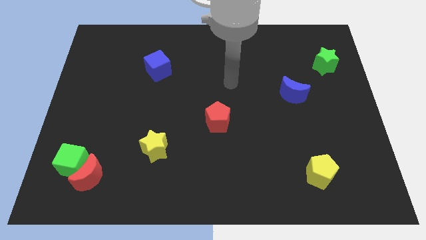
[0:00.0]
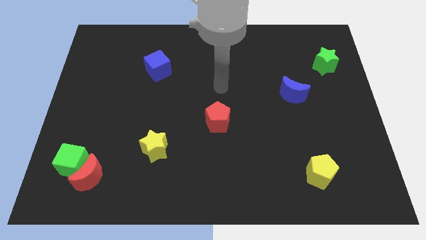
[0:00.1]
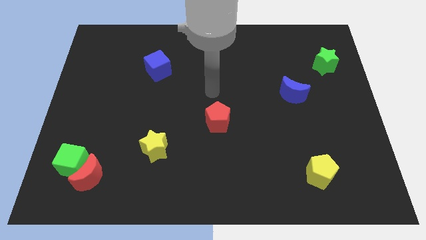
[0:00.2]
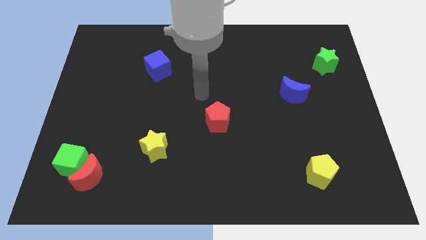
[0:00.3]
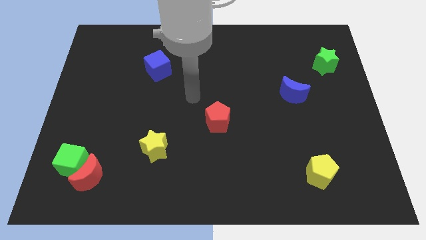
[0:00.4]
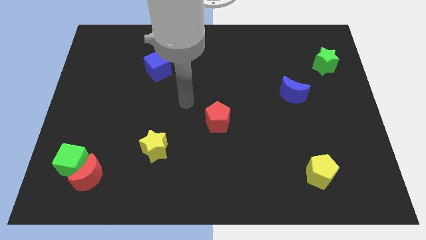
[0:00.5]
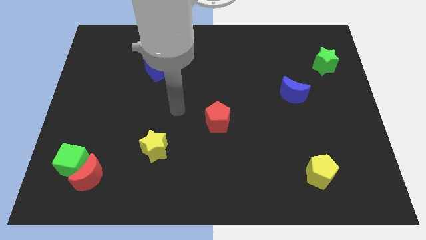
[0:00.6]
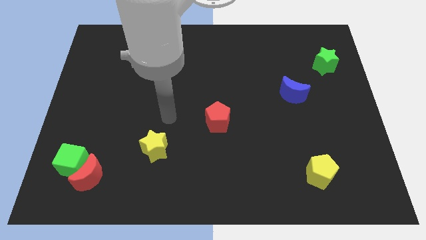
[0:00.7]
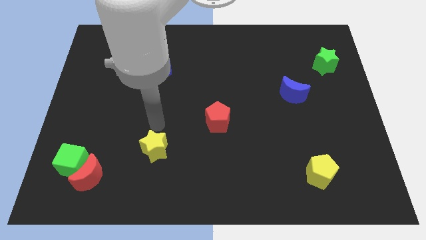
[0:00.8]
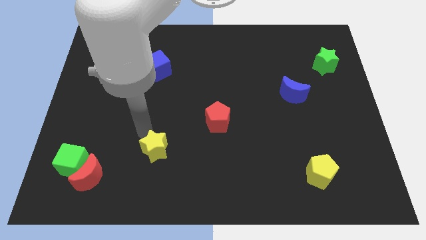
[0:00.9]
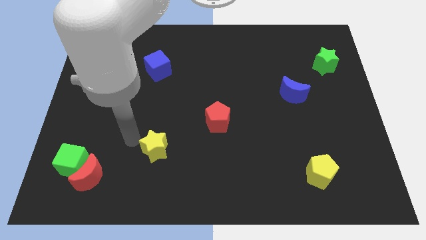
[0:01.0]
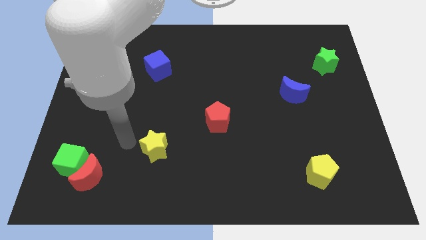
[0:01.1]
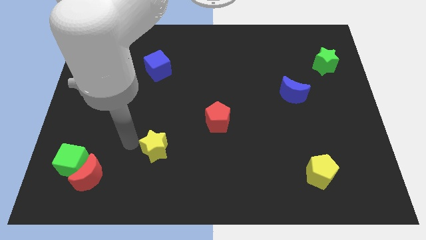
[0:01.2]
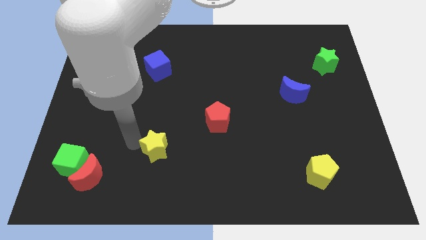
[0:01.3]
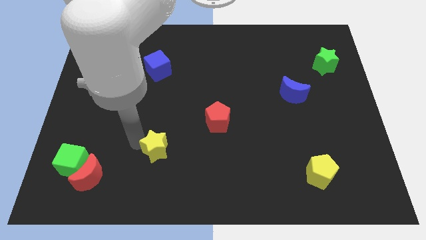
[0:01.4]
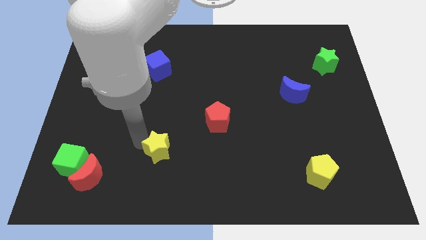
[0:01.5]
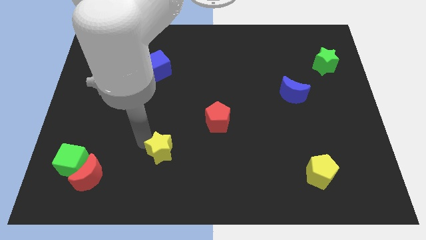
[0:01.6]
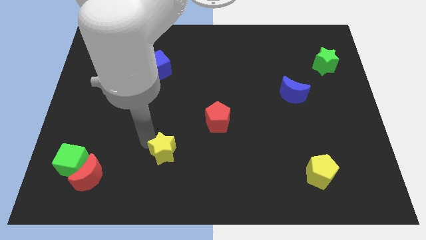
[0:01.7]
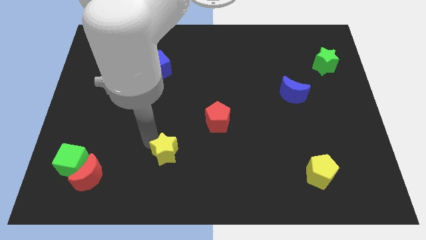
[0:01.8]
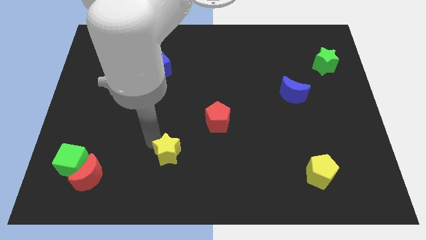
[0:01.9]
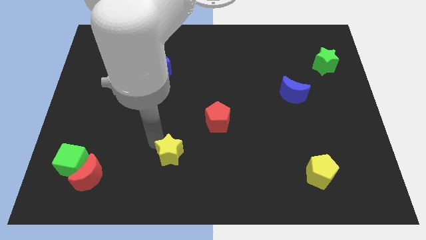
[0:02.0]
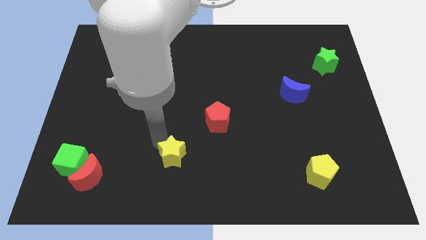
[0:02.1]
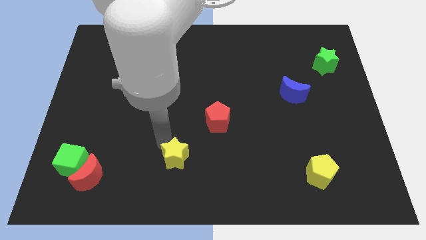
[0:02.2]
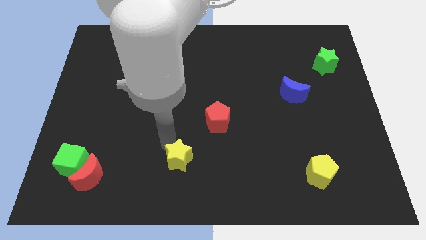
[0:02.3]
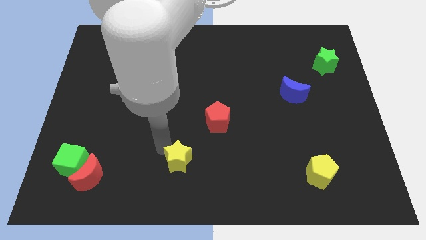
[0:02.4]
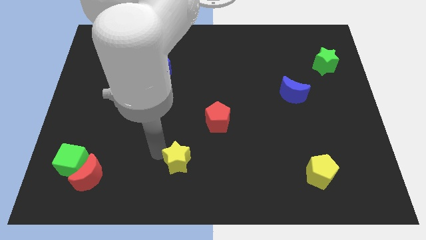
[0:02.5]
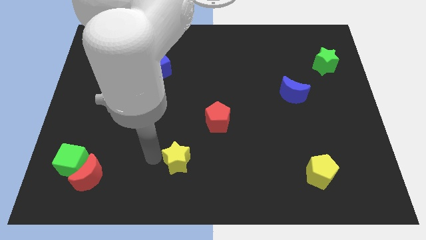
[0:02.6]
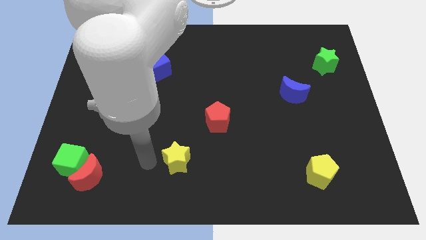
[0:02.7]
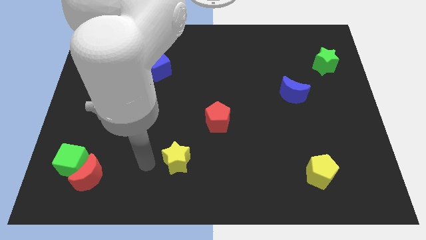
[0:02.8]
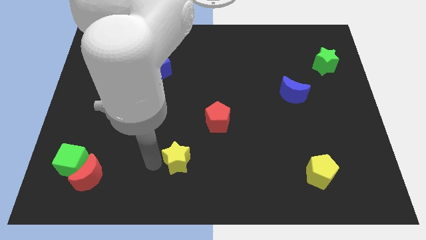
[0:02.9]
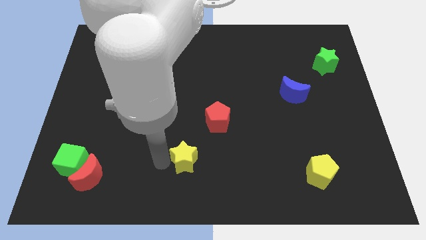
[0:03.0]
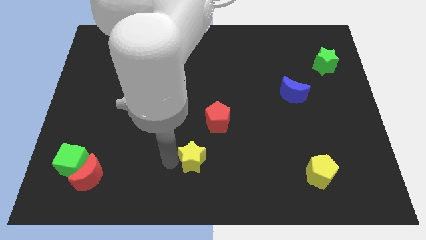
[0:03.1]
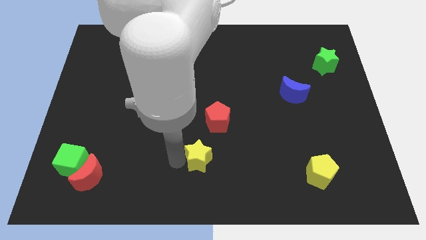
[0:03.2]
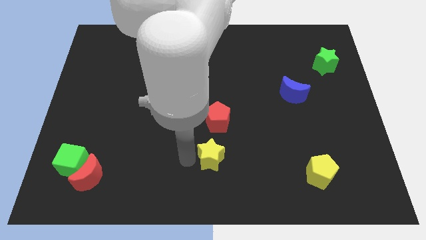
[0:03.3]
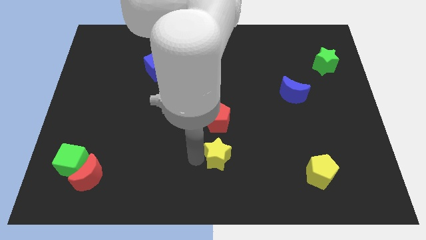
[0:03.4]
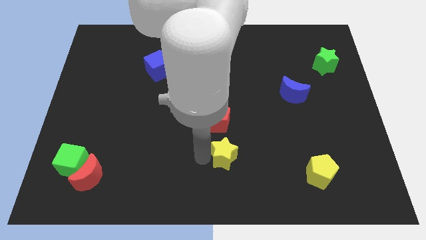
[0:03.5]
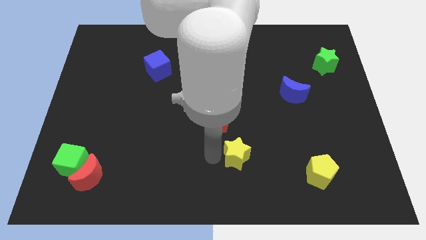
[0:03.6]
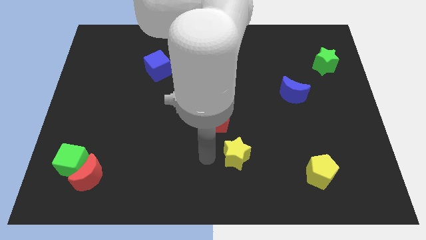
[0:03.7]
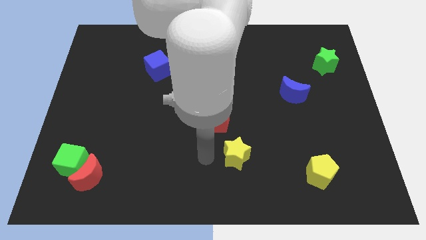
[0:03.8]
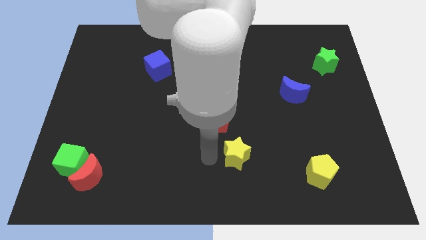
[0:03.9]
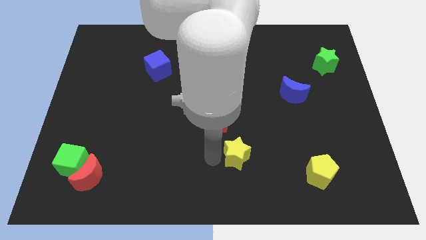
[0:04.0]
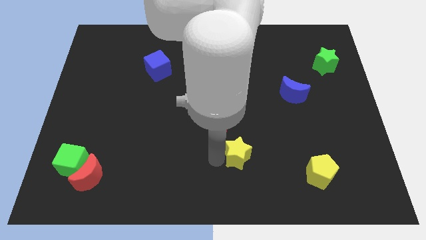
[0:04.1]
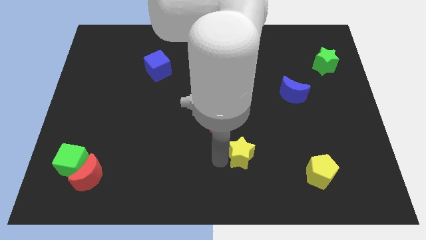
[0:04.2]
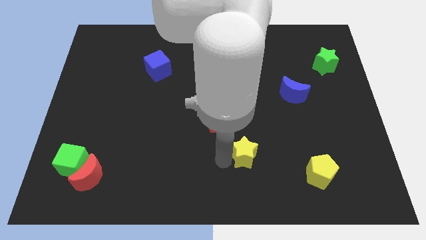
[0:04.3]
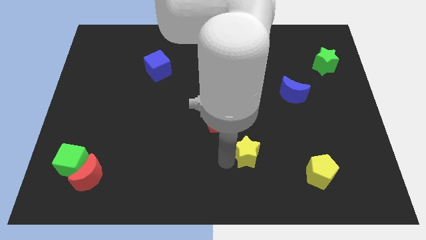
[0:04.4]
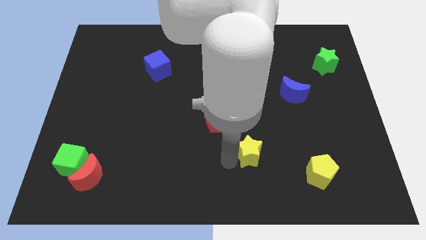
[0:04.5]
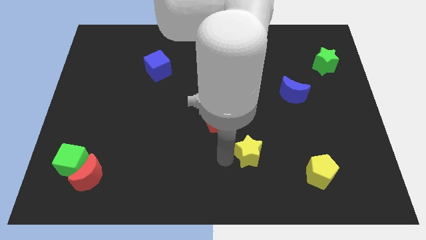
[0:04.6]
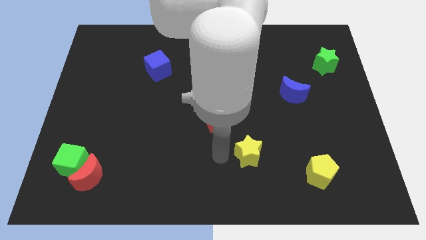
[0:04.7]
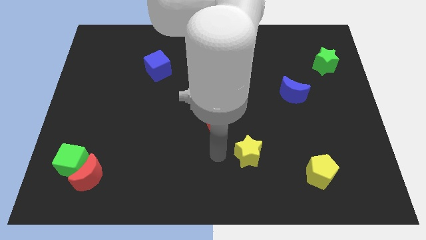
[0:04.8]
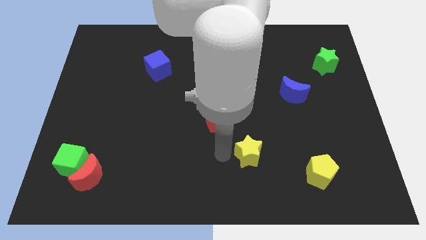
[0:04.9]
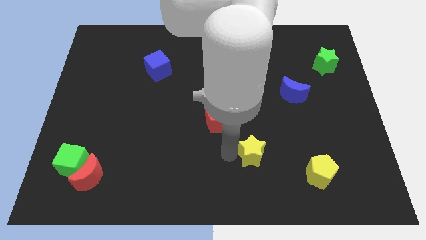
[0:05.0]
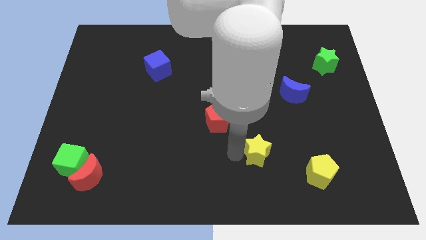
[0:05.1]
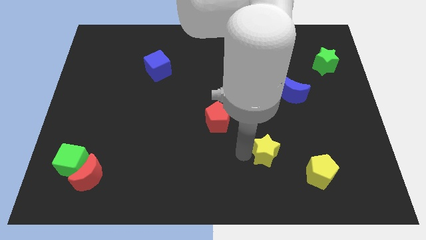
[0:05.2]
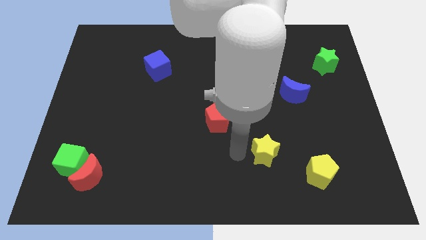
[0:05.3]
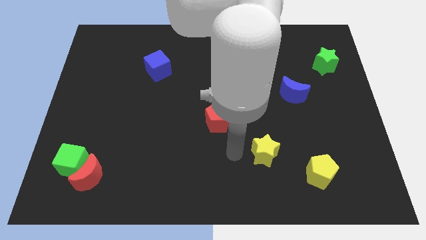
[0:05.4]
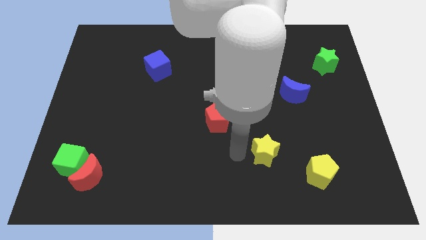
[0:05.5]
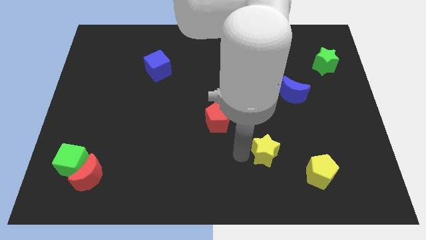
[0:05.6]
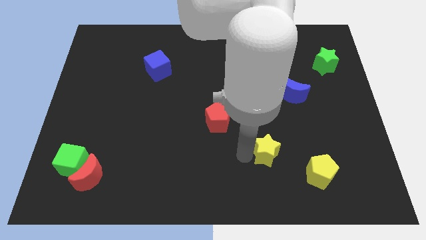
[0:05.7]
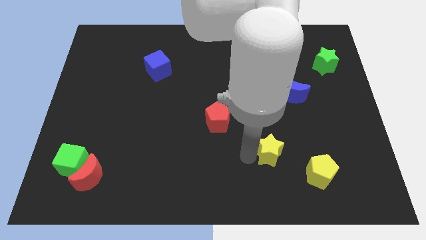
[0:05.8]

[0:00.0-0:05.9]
move the yellow star to the top left of the yellow pentagon

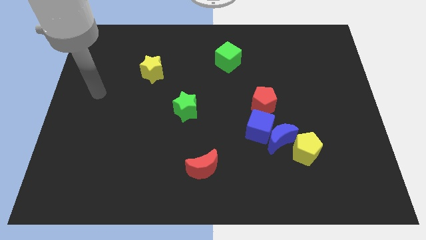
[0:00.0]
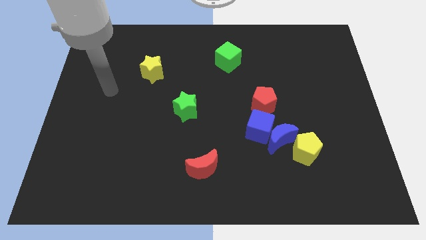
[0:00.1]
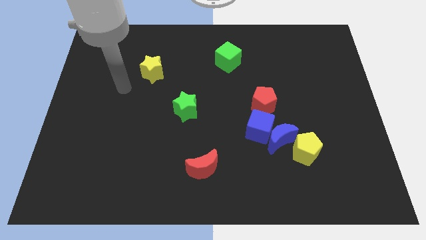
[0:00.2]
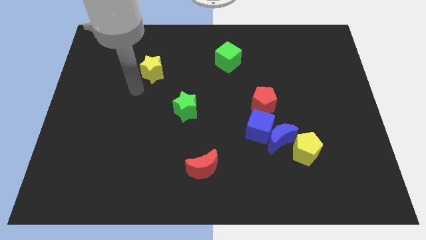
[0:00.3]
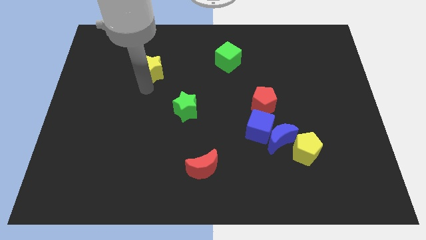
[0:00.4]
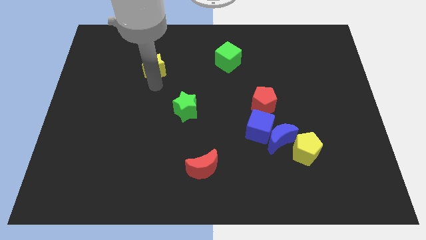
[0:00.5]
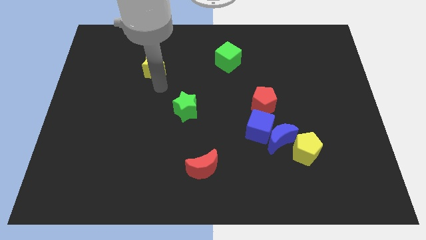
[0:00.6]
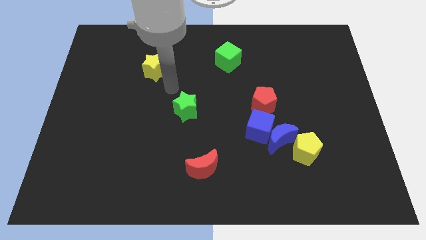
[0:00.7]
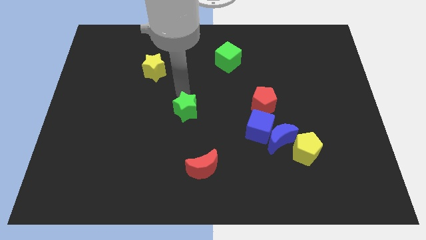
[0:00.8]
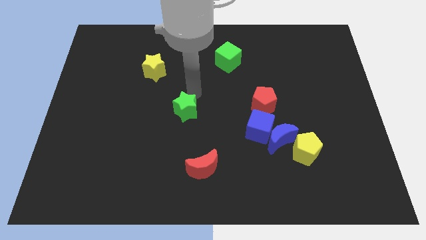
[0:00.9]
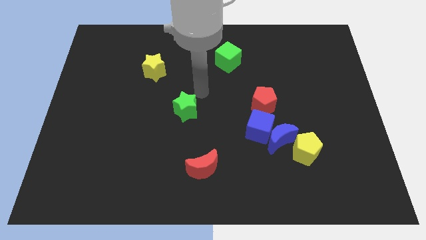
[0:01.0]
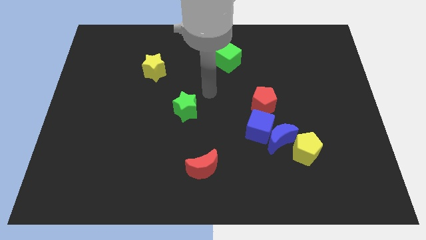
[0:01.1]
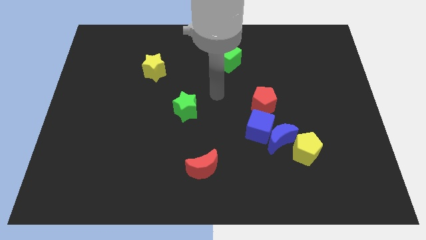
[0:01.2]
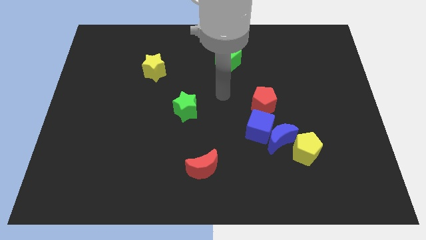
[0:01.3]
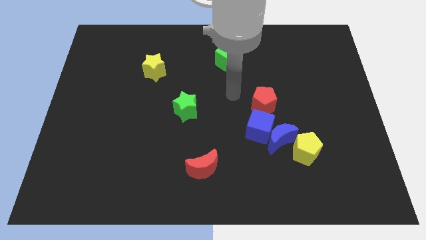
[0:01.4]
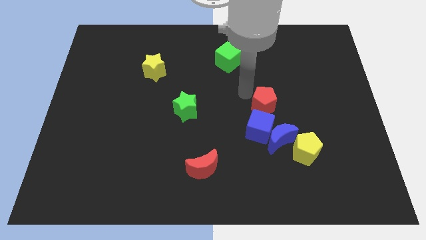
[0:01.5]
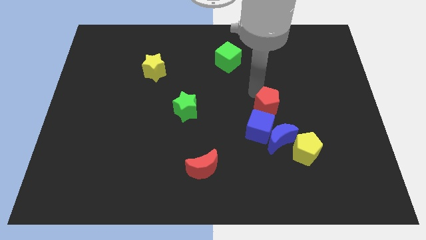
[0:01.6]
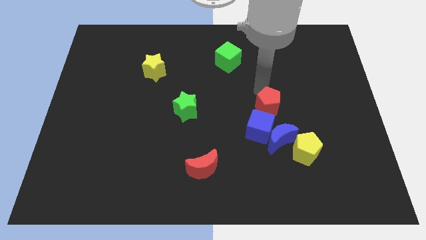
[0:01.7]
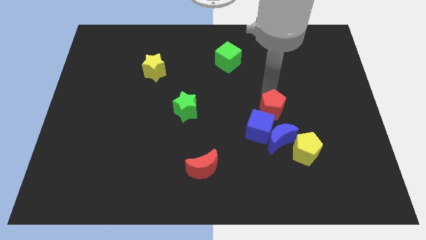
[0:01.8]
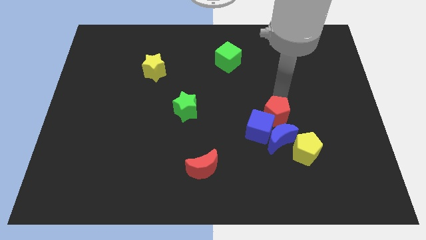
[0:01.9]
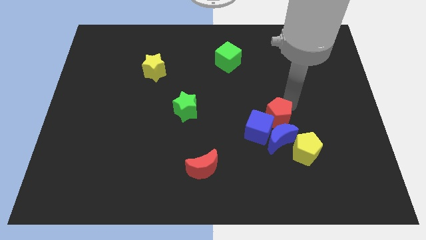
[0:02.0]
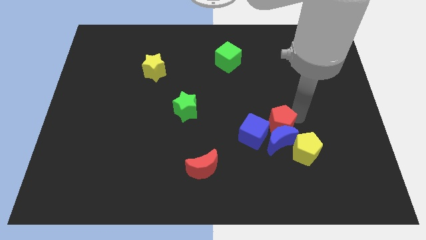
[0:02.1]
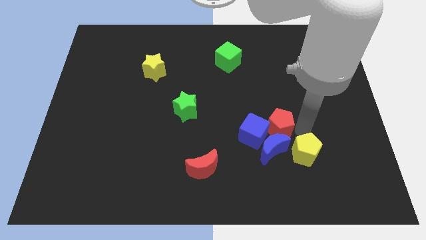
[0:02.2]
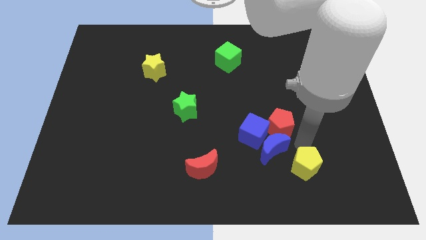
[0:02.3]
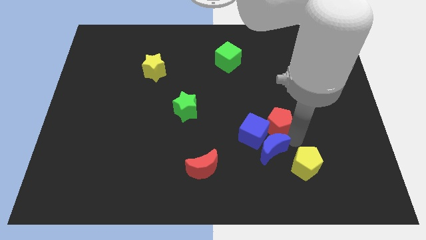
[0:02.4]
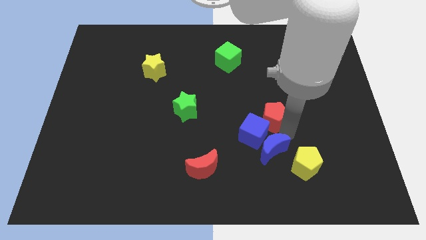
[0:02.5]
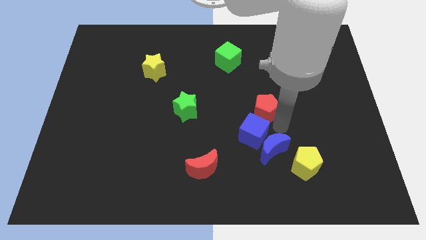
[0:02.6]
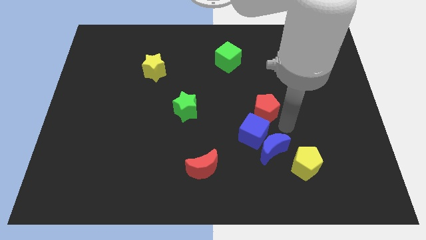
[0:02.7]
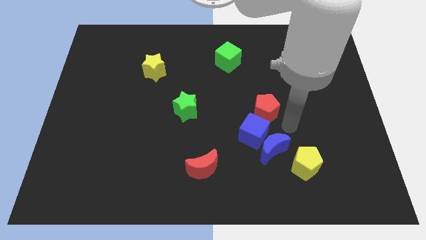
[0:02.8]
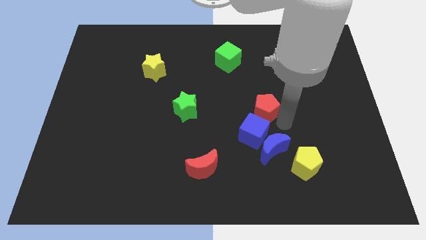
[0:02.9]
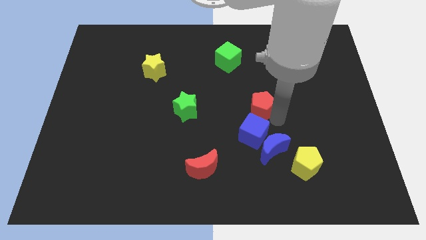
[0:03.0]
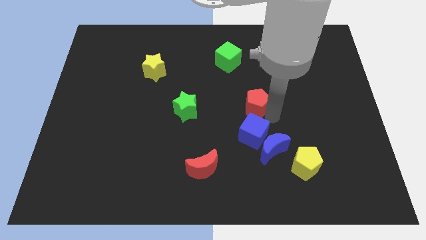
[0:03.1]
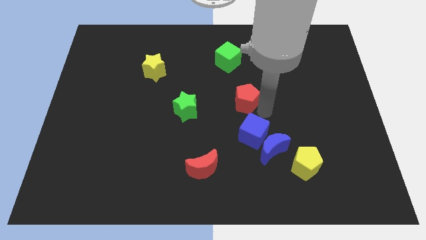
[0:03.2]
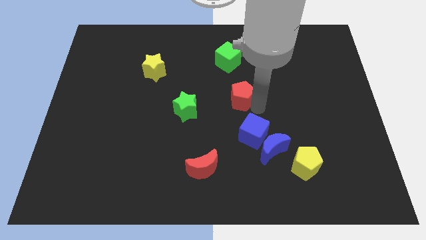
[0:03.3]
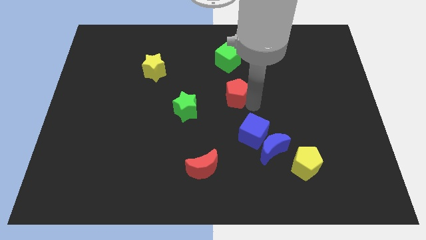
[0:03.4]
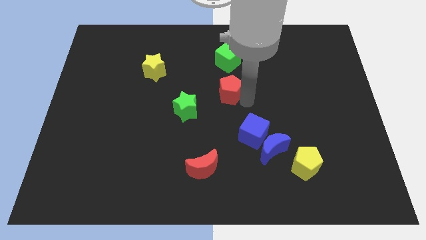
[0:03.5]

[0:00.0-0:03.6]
put the red pentagon diagonally up and to the right of the green star
